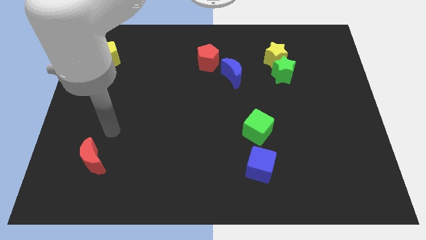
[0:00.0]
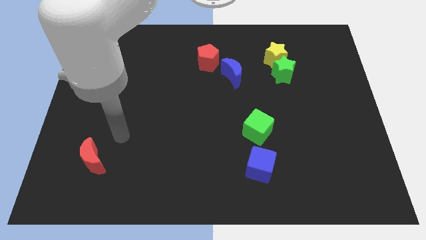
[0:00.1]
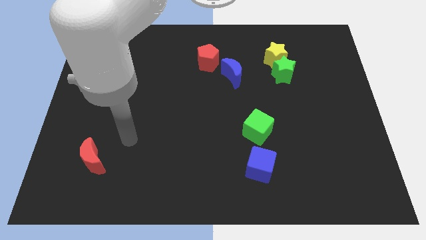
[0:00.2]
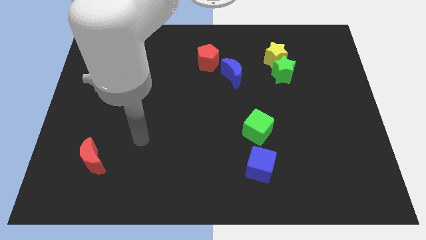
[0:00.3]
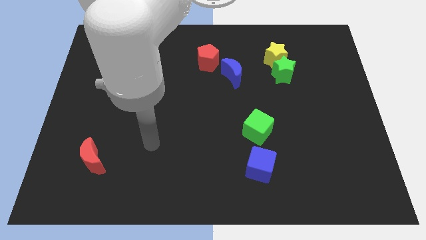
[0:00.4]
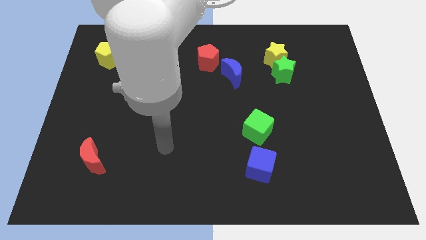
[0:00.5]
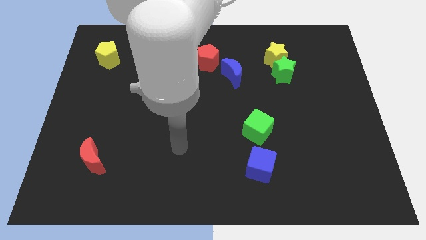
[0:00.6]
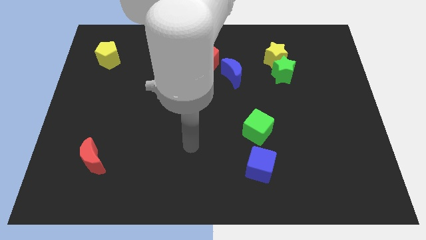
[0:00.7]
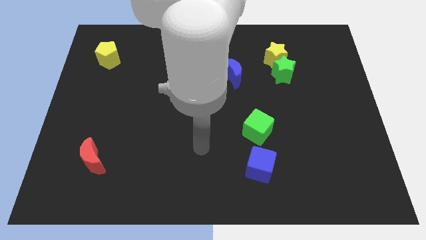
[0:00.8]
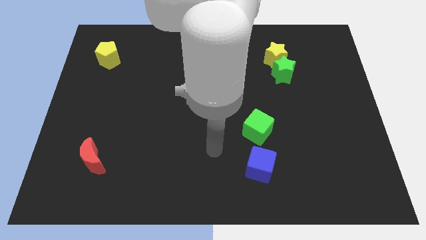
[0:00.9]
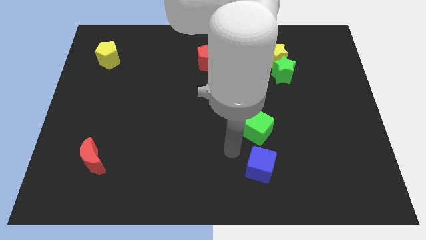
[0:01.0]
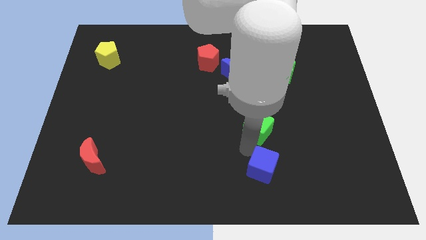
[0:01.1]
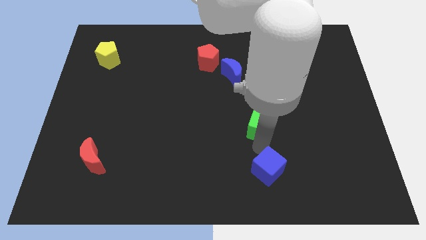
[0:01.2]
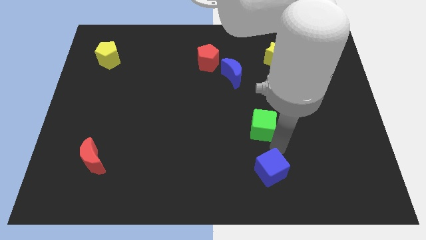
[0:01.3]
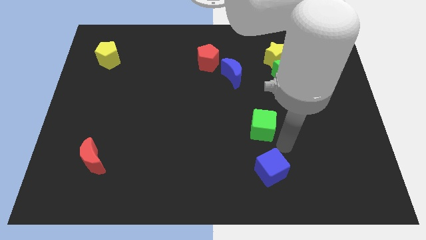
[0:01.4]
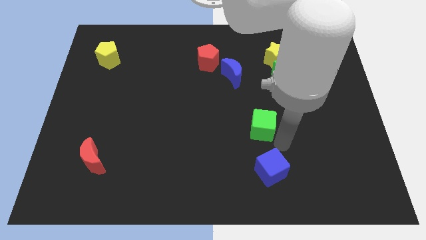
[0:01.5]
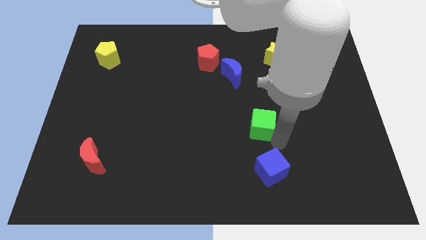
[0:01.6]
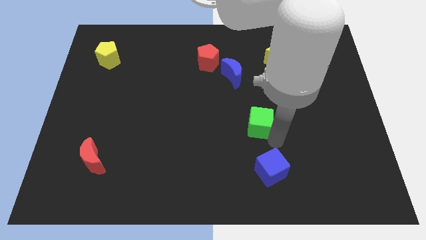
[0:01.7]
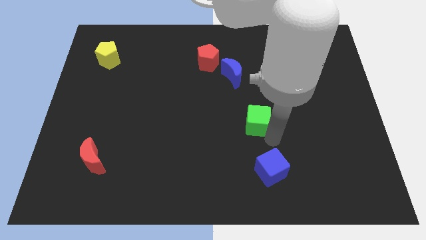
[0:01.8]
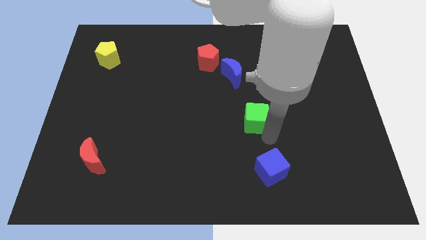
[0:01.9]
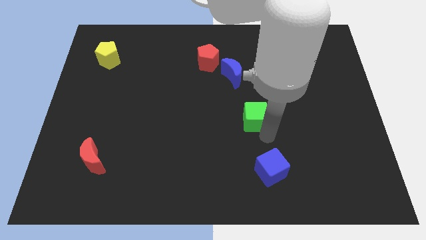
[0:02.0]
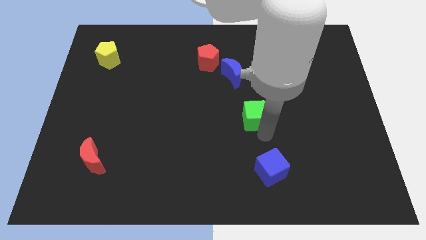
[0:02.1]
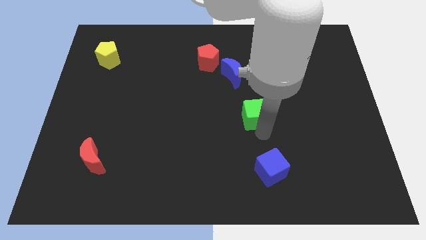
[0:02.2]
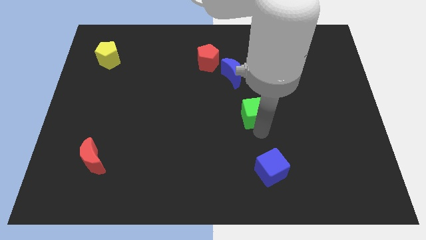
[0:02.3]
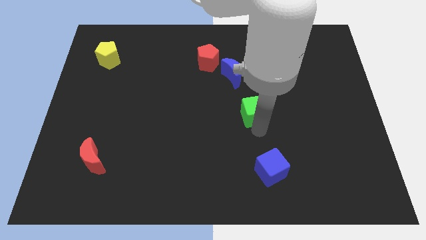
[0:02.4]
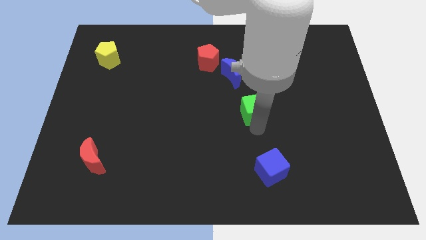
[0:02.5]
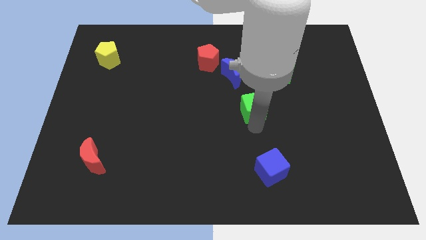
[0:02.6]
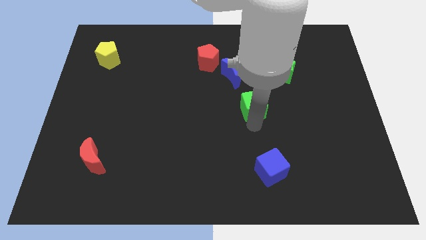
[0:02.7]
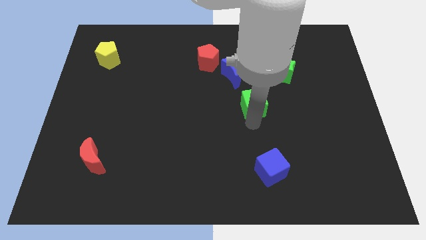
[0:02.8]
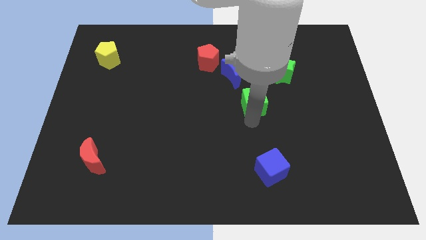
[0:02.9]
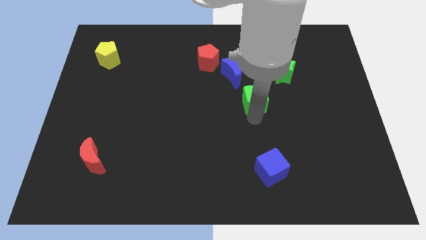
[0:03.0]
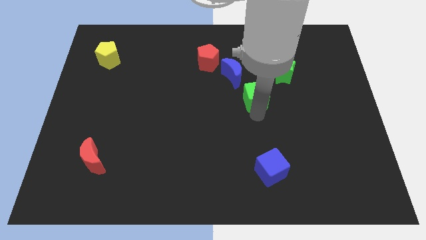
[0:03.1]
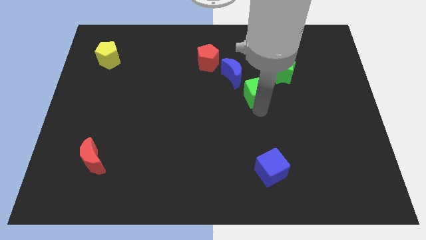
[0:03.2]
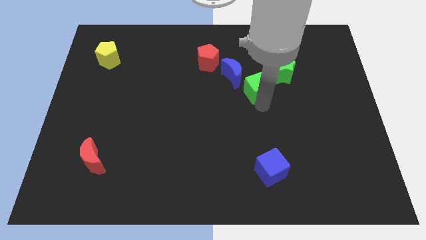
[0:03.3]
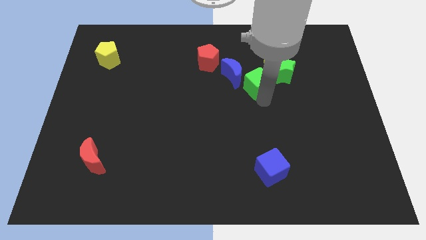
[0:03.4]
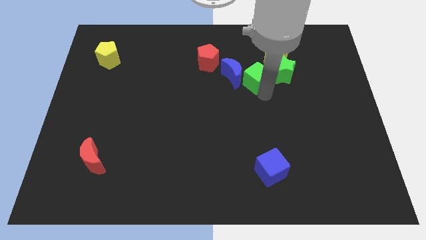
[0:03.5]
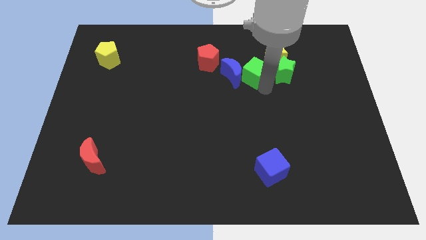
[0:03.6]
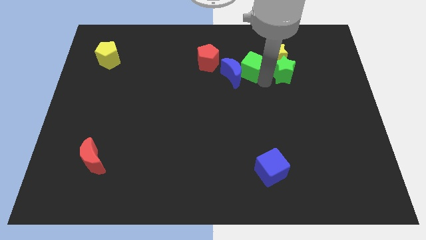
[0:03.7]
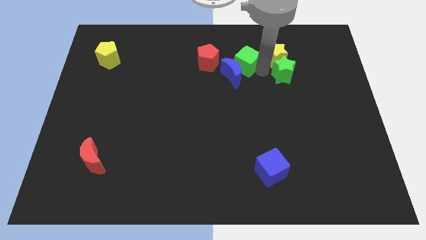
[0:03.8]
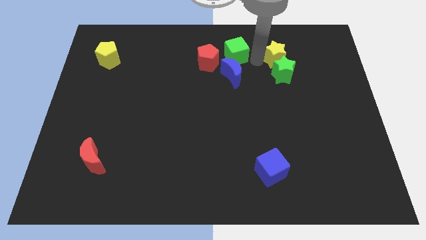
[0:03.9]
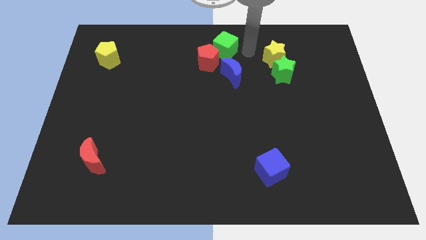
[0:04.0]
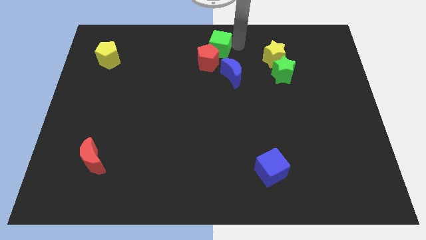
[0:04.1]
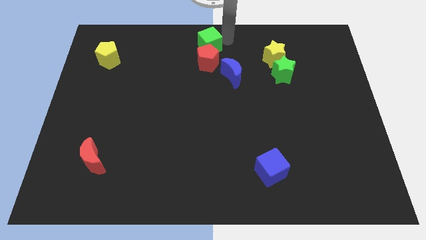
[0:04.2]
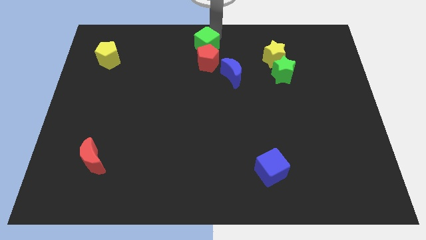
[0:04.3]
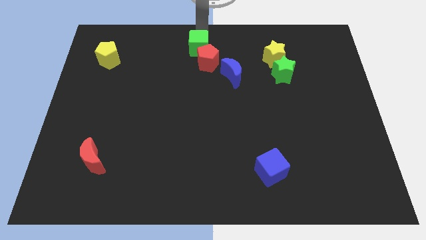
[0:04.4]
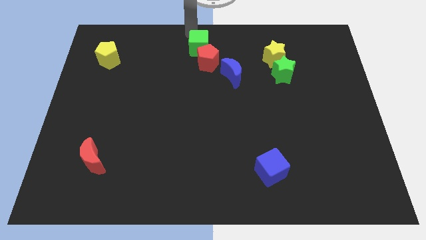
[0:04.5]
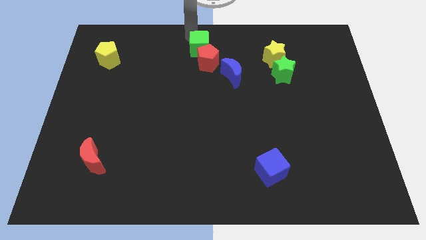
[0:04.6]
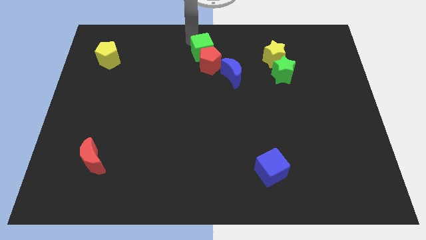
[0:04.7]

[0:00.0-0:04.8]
move the green cube a little up and left

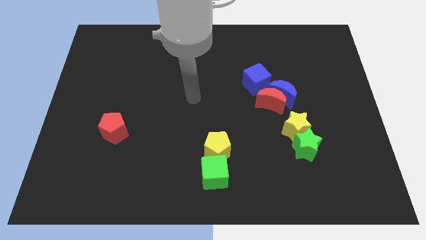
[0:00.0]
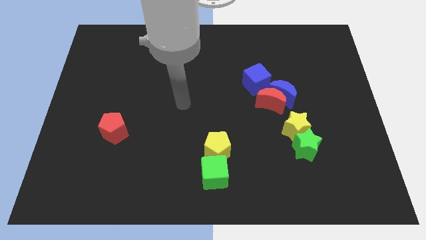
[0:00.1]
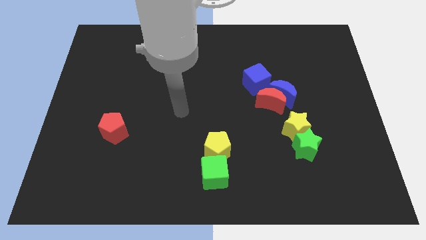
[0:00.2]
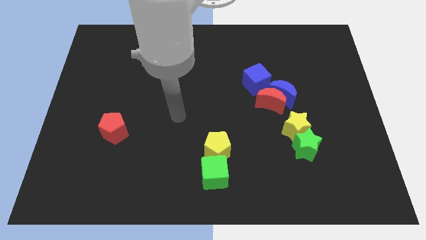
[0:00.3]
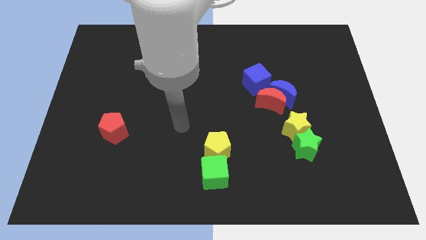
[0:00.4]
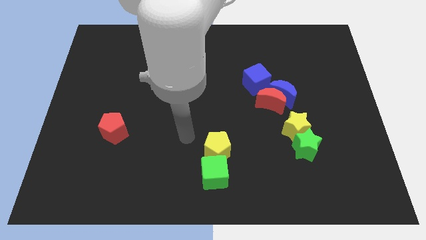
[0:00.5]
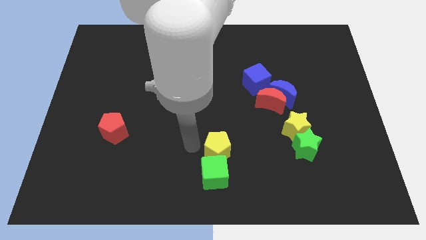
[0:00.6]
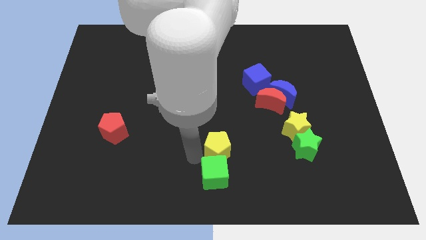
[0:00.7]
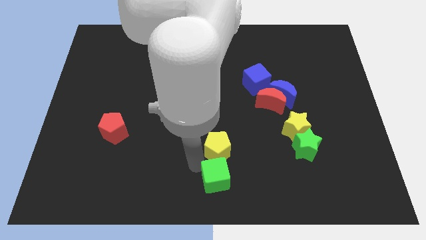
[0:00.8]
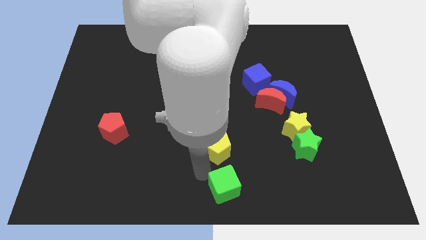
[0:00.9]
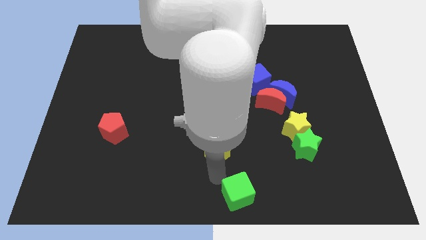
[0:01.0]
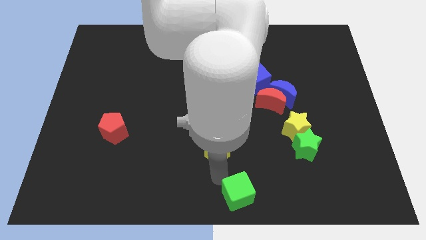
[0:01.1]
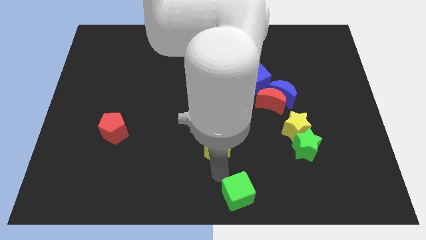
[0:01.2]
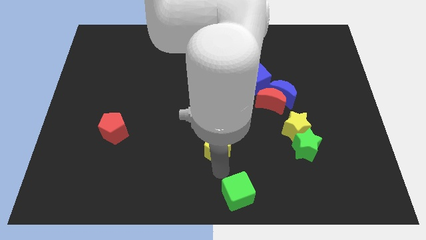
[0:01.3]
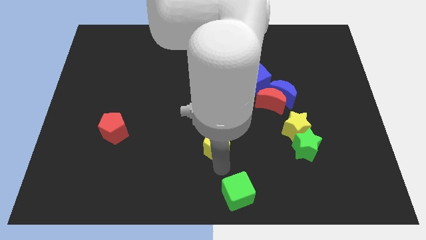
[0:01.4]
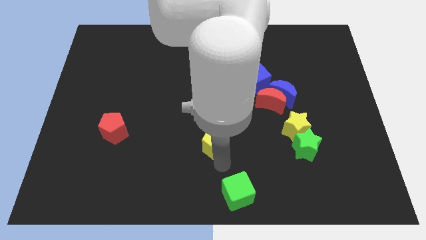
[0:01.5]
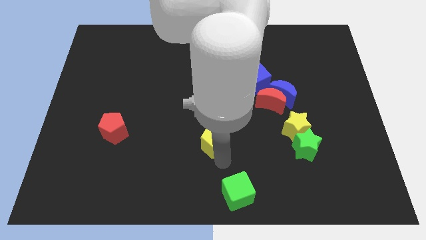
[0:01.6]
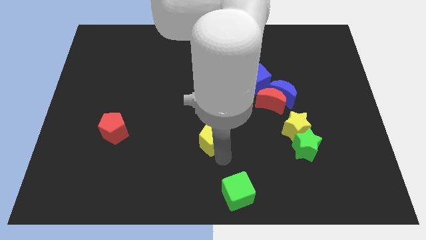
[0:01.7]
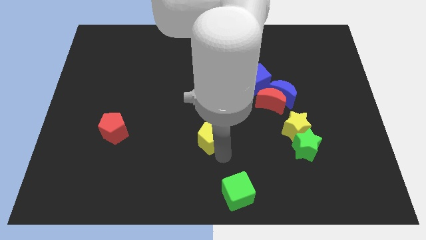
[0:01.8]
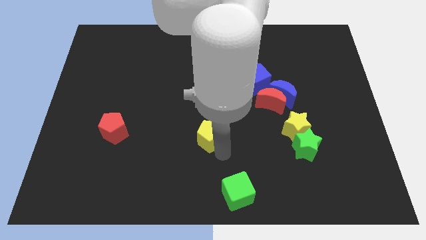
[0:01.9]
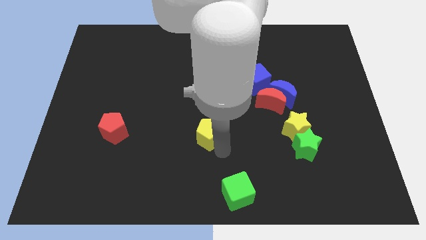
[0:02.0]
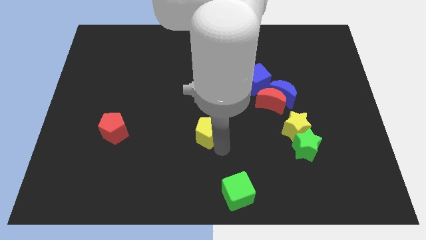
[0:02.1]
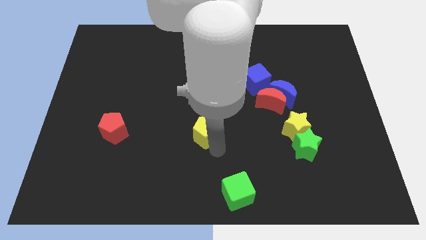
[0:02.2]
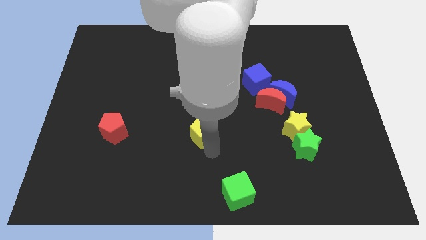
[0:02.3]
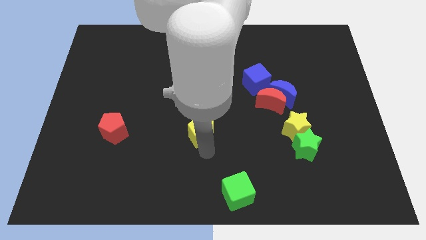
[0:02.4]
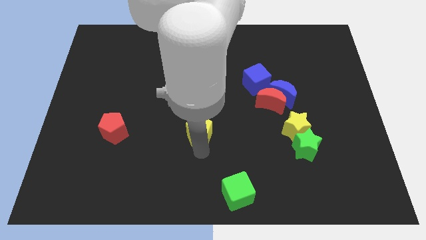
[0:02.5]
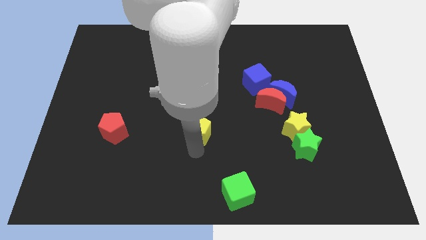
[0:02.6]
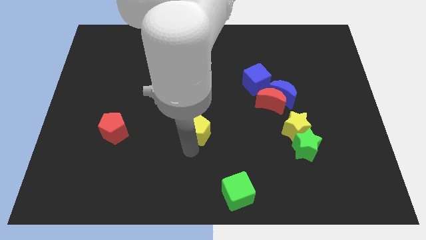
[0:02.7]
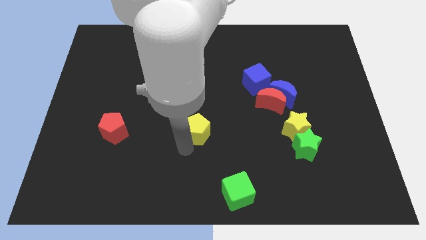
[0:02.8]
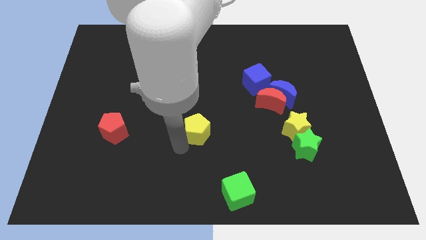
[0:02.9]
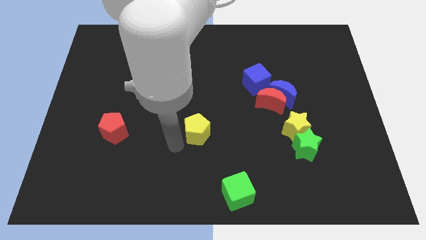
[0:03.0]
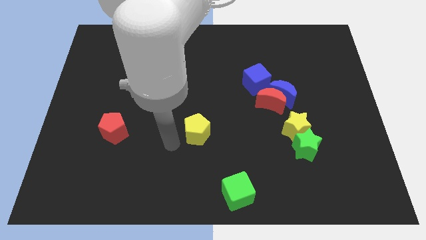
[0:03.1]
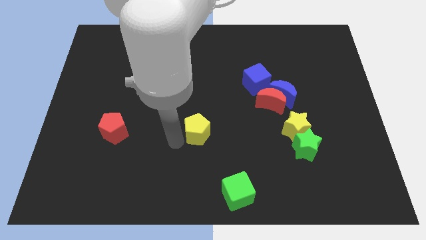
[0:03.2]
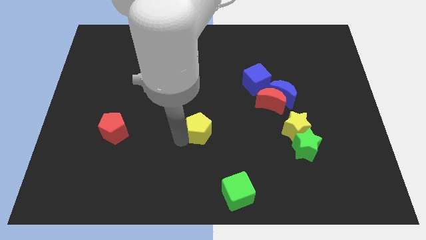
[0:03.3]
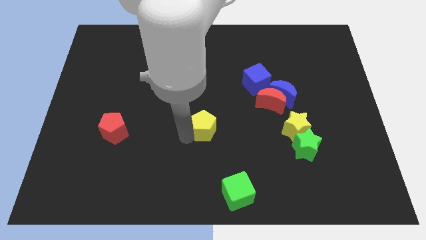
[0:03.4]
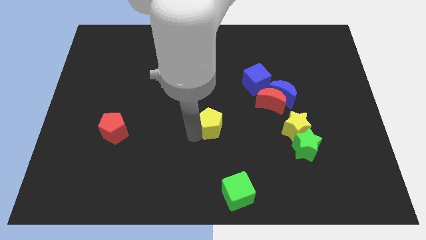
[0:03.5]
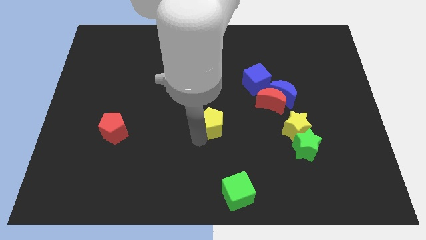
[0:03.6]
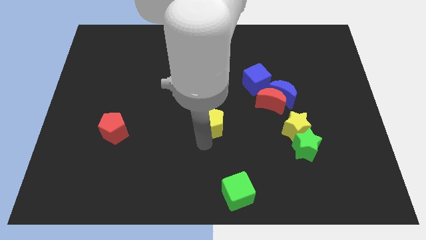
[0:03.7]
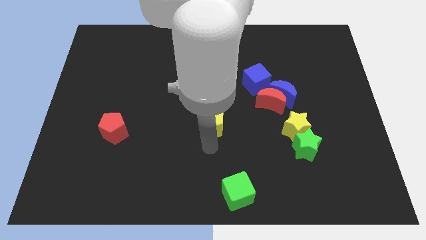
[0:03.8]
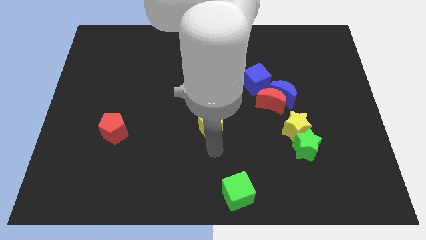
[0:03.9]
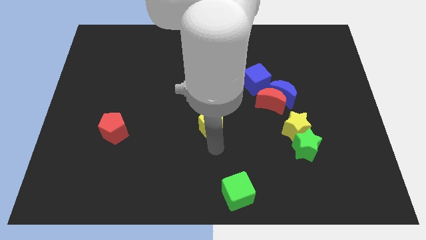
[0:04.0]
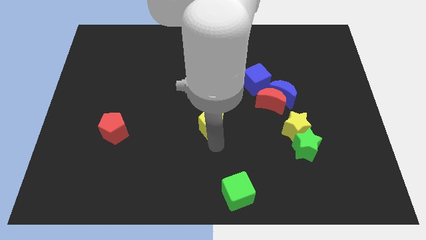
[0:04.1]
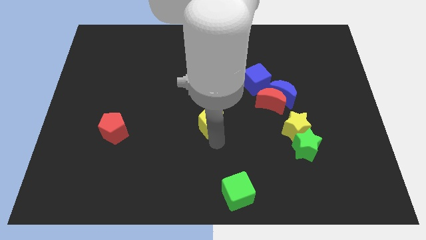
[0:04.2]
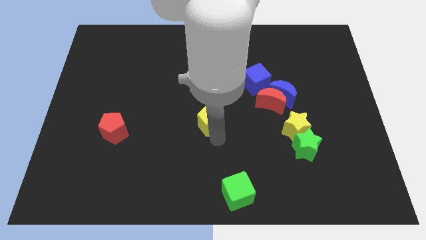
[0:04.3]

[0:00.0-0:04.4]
move the yellow pentagon up slightly
